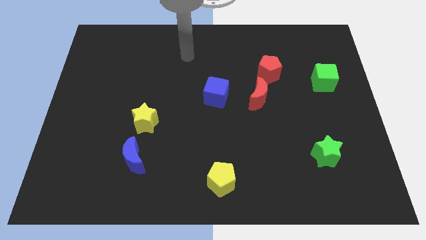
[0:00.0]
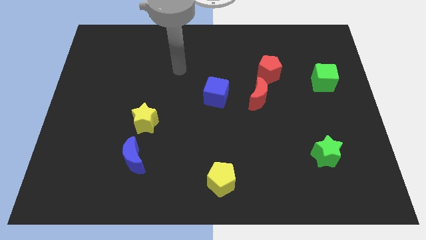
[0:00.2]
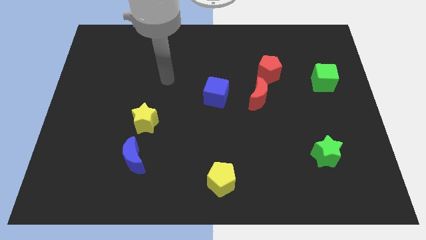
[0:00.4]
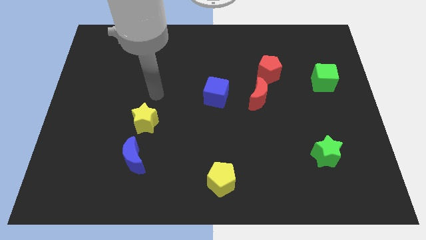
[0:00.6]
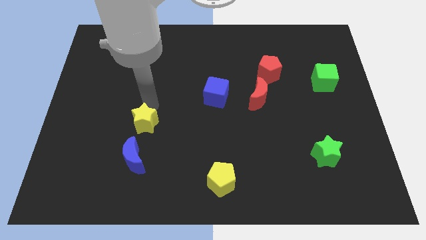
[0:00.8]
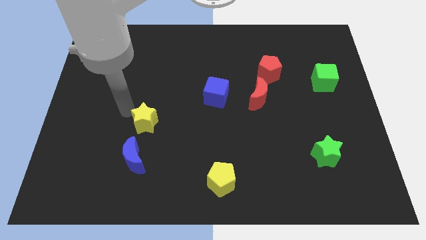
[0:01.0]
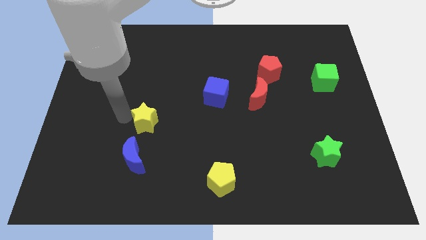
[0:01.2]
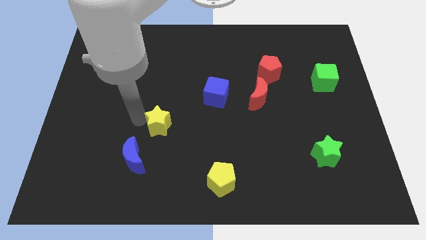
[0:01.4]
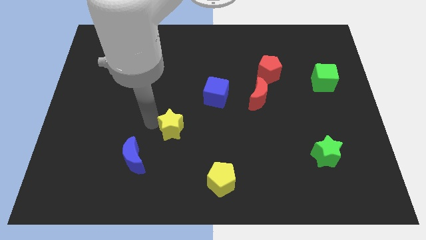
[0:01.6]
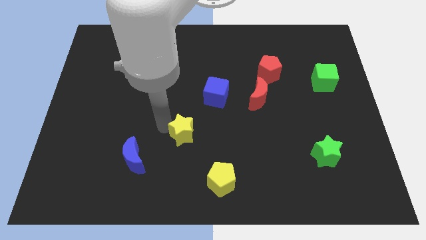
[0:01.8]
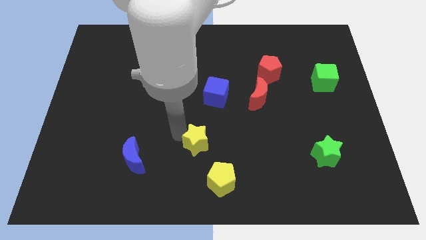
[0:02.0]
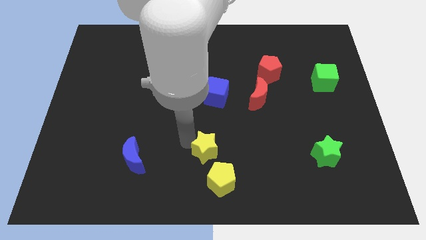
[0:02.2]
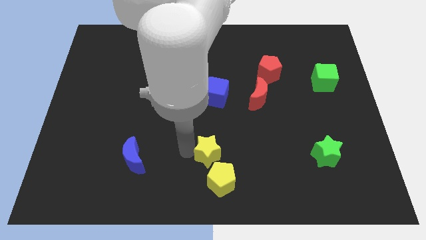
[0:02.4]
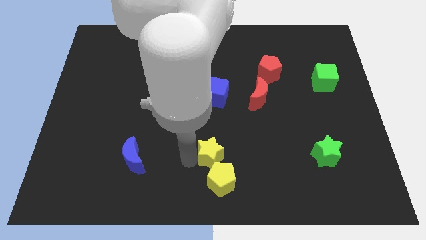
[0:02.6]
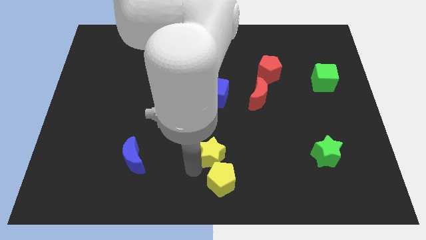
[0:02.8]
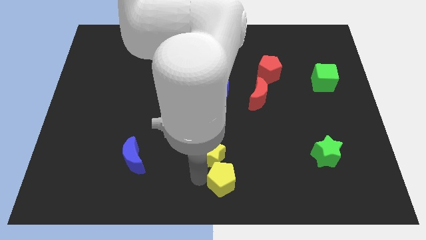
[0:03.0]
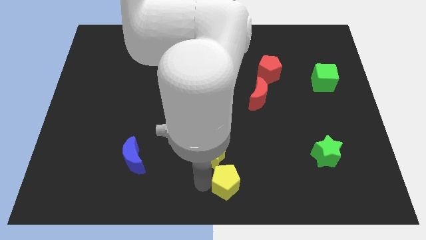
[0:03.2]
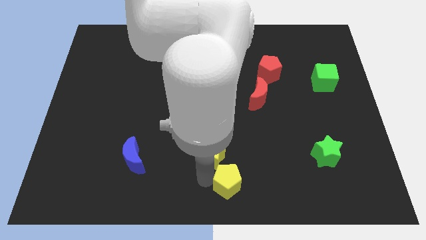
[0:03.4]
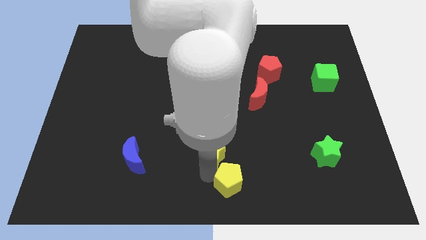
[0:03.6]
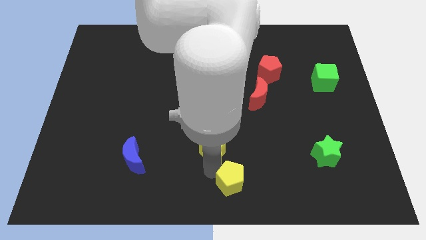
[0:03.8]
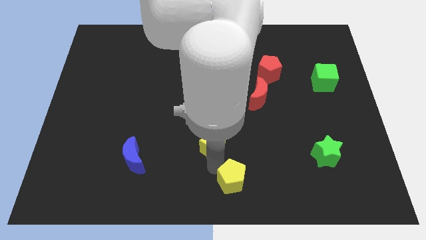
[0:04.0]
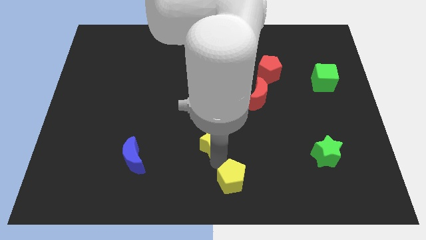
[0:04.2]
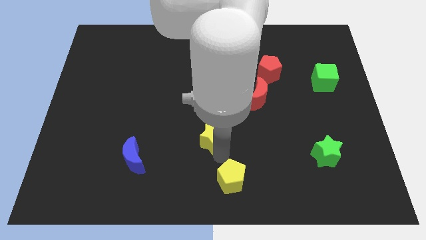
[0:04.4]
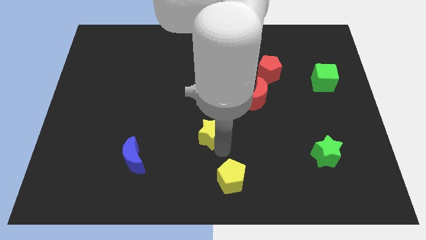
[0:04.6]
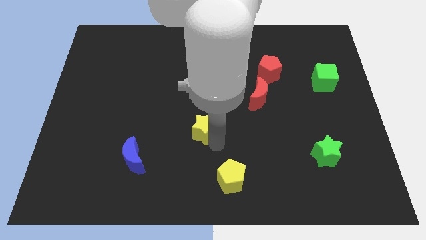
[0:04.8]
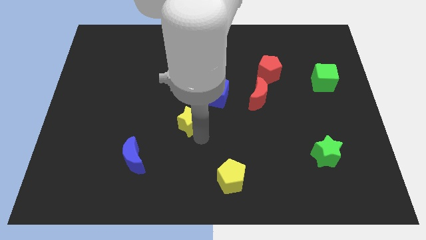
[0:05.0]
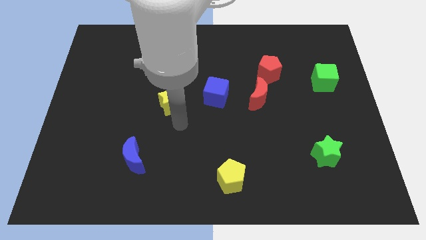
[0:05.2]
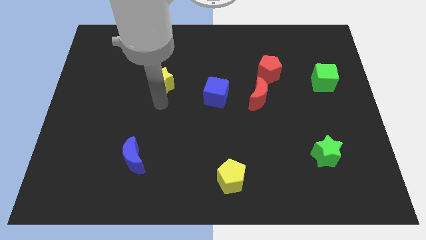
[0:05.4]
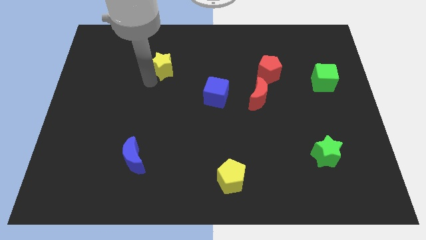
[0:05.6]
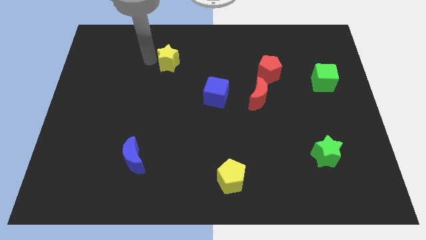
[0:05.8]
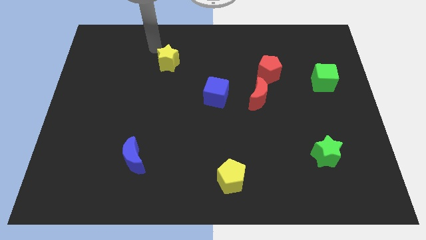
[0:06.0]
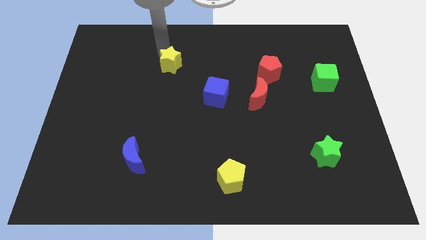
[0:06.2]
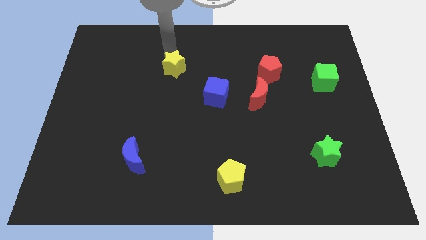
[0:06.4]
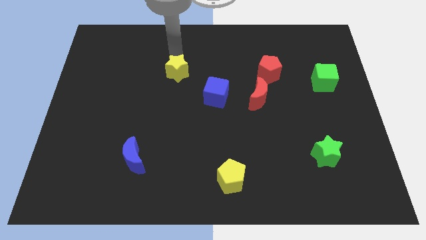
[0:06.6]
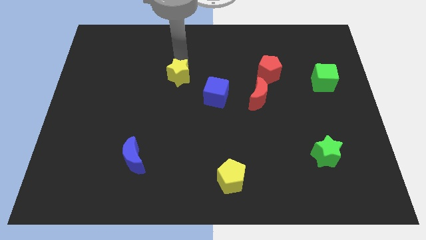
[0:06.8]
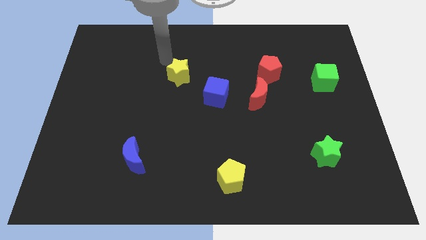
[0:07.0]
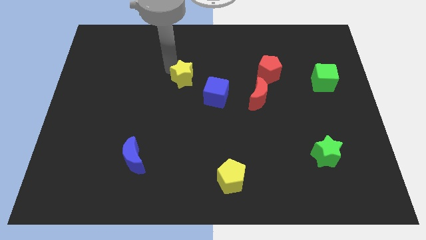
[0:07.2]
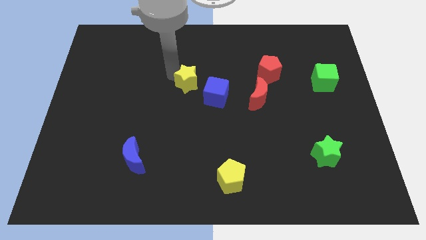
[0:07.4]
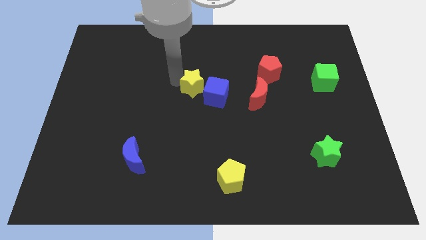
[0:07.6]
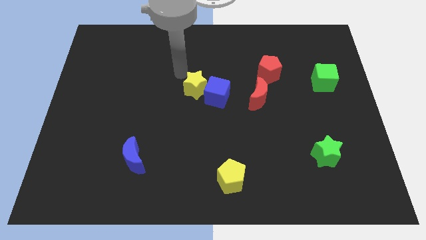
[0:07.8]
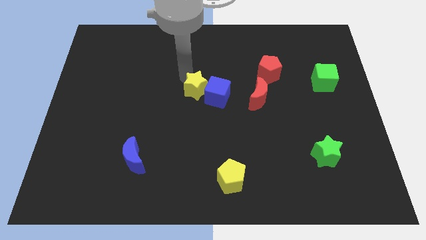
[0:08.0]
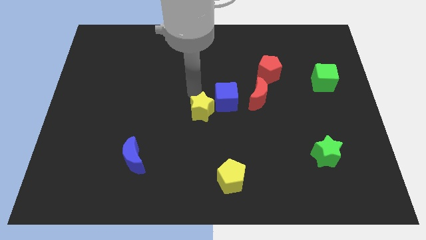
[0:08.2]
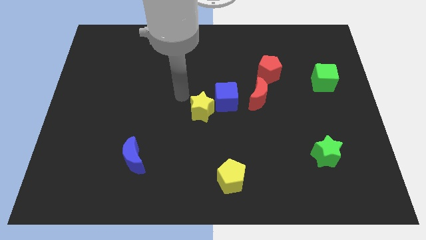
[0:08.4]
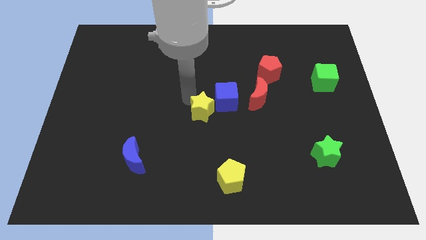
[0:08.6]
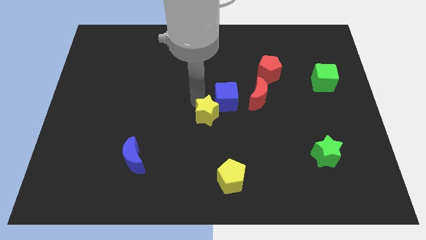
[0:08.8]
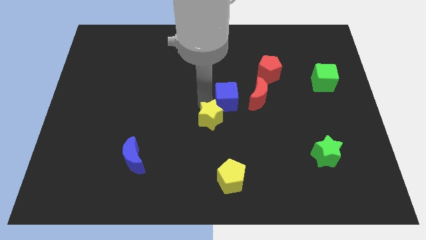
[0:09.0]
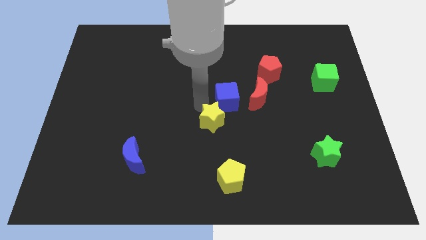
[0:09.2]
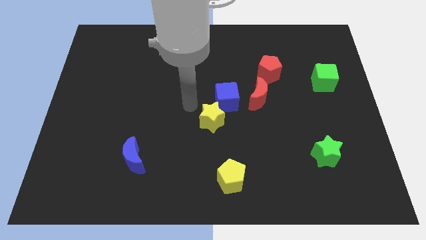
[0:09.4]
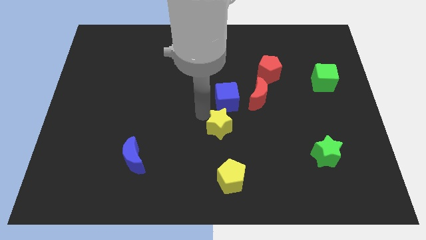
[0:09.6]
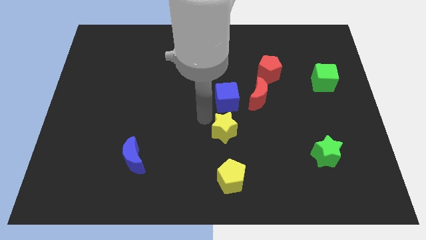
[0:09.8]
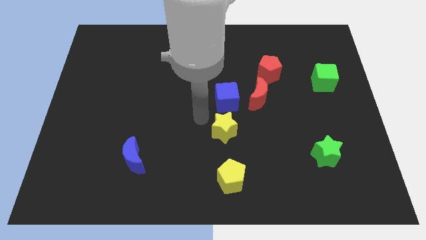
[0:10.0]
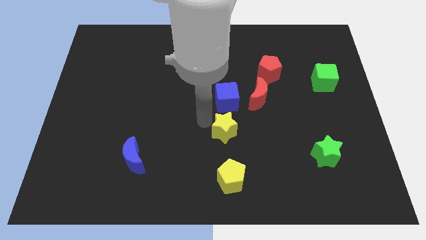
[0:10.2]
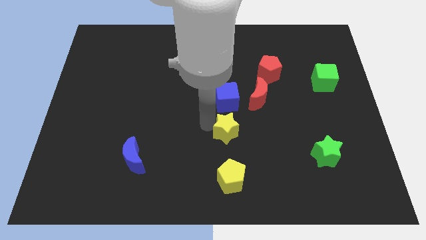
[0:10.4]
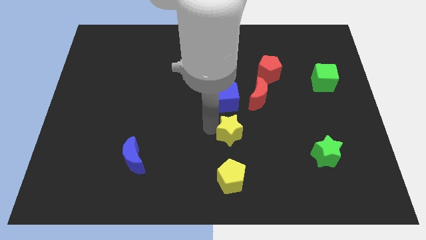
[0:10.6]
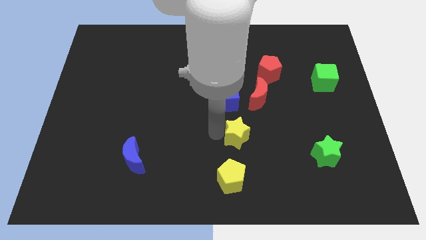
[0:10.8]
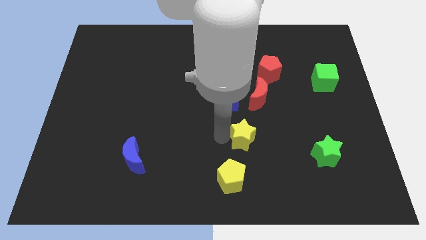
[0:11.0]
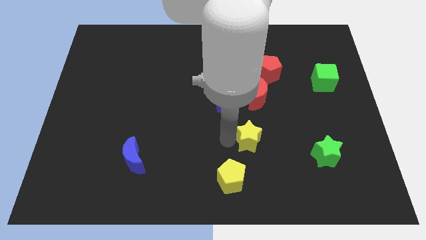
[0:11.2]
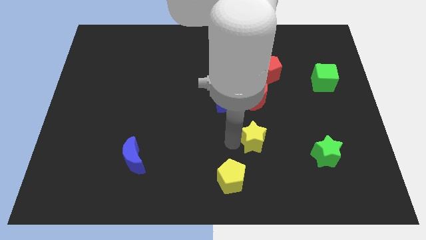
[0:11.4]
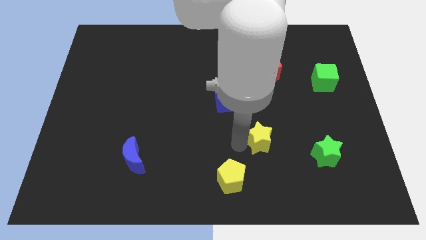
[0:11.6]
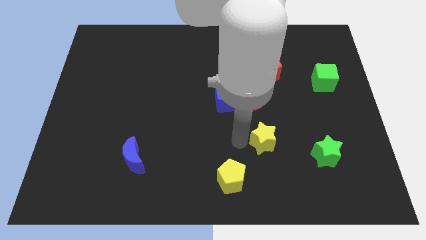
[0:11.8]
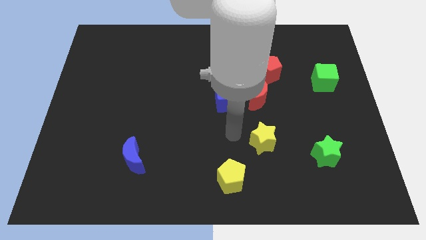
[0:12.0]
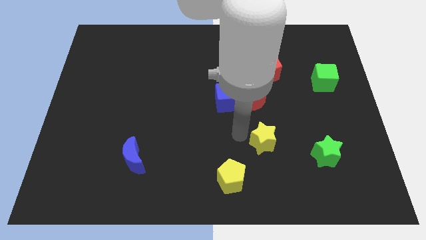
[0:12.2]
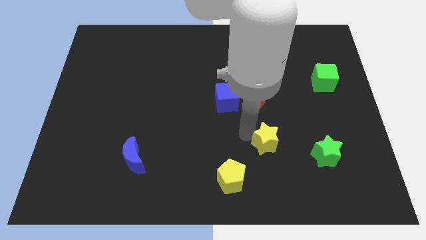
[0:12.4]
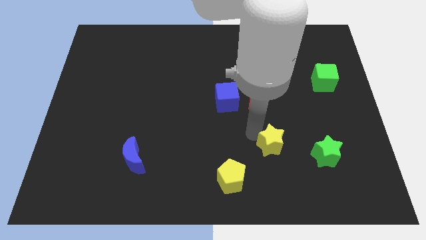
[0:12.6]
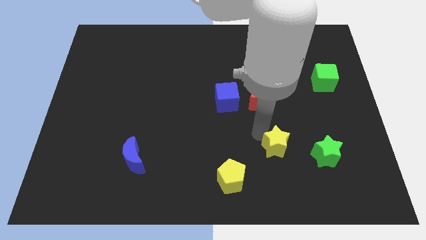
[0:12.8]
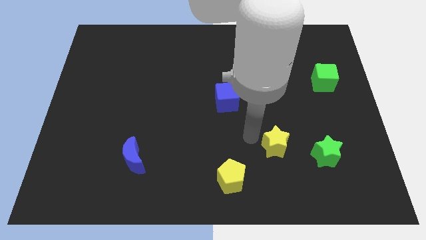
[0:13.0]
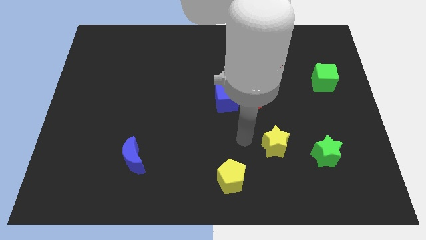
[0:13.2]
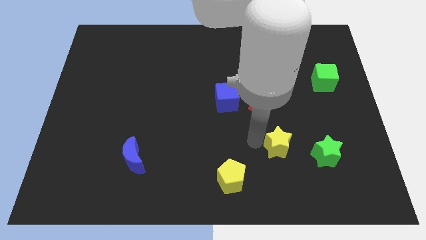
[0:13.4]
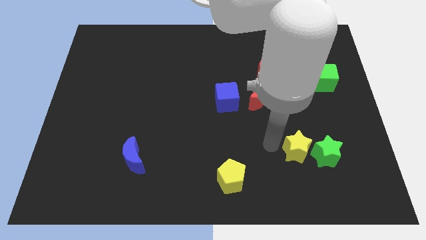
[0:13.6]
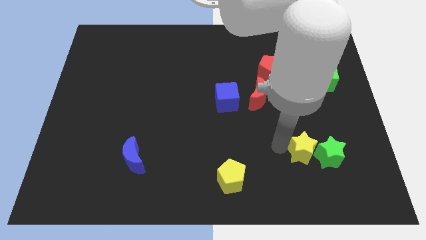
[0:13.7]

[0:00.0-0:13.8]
push the yellow star close to the green star

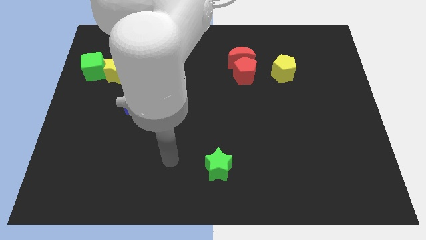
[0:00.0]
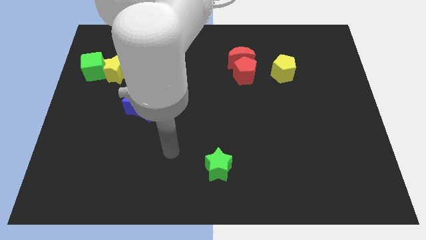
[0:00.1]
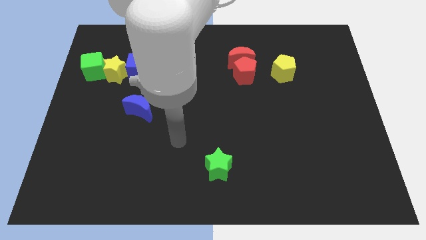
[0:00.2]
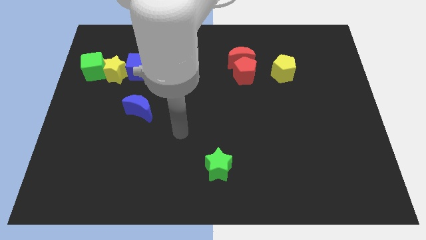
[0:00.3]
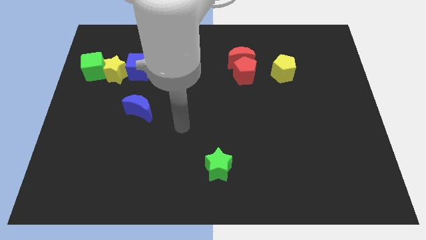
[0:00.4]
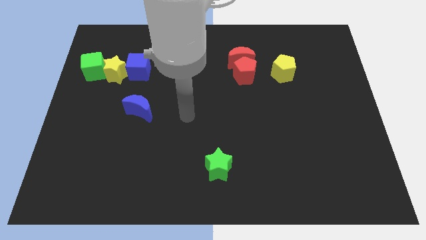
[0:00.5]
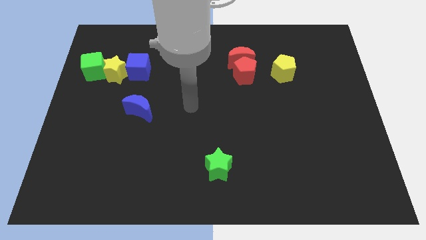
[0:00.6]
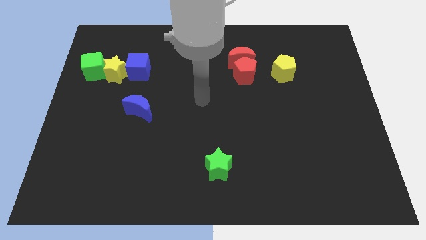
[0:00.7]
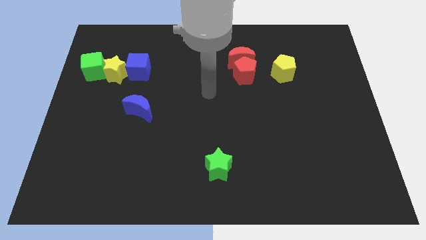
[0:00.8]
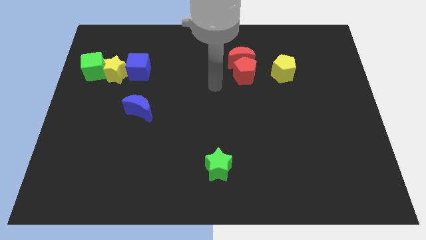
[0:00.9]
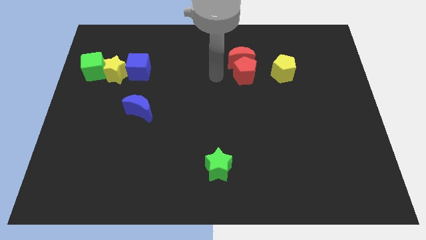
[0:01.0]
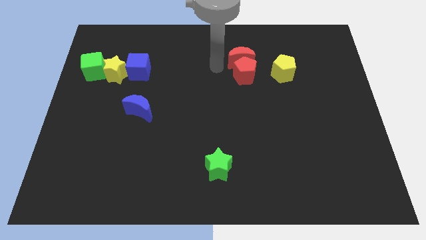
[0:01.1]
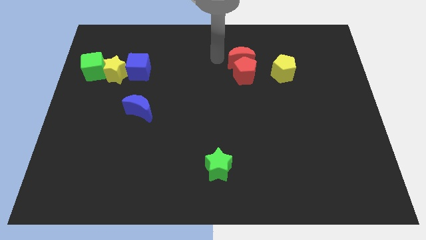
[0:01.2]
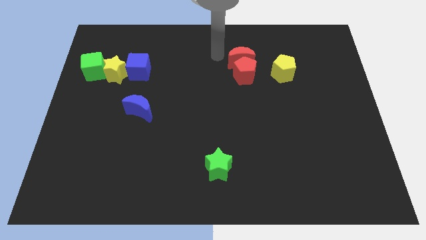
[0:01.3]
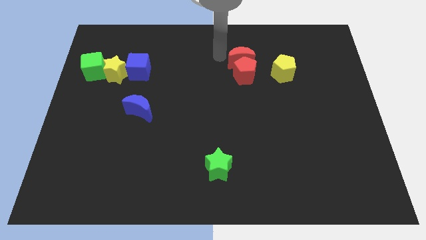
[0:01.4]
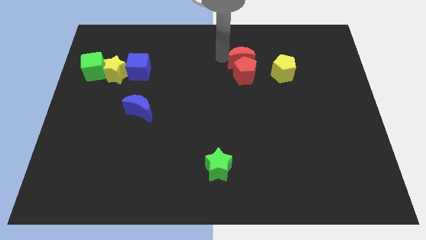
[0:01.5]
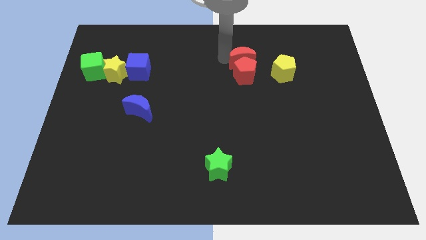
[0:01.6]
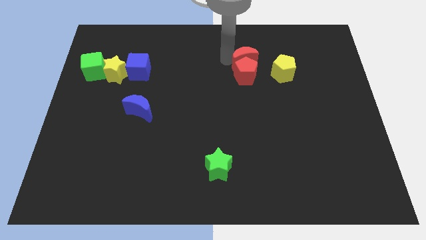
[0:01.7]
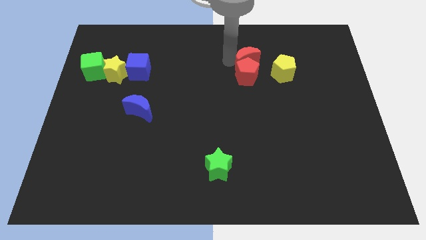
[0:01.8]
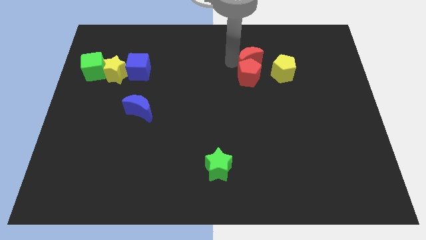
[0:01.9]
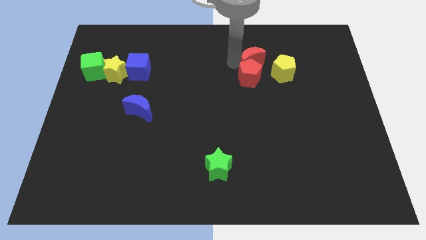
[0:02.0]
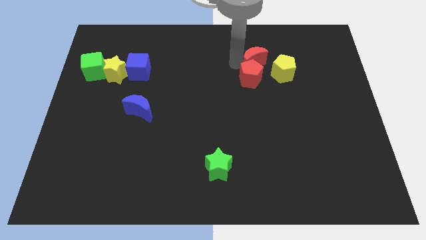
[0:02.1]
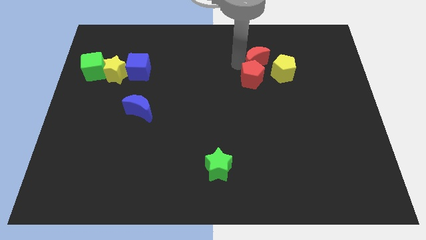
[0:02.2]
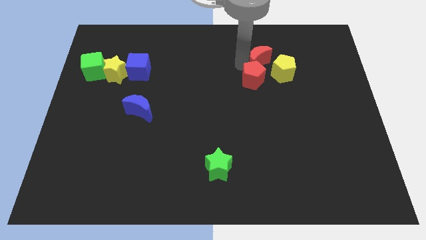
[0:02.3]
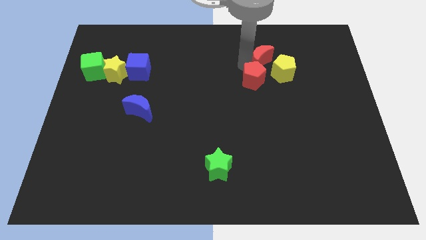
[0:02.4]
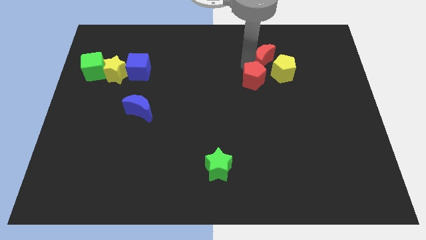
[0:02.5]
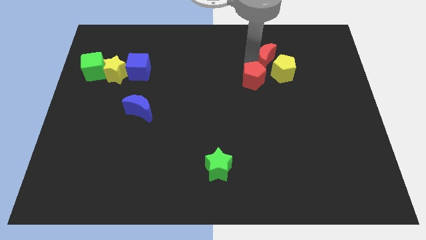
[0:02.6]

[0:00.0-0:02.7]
slide the red moon close to the yellow pentagon
